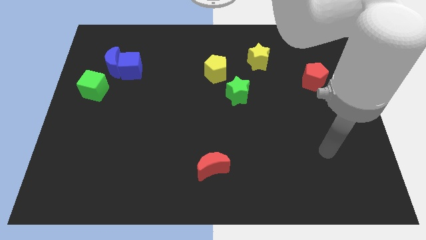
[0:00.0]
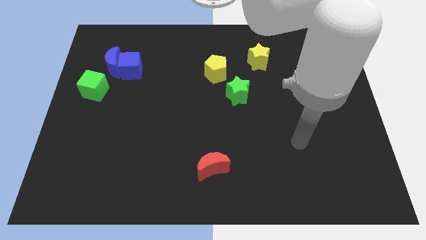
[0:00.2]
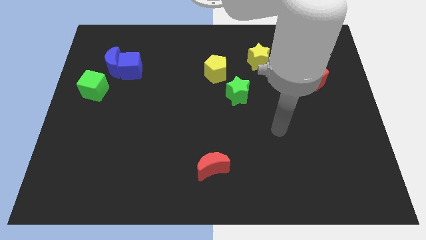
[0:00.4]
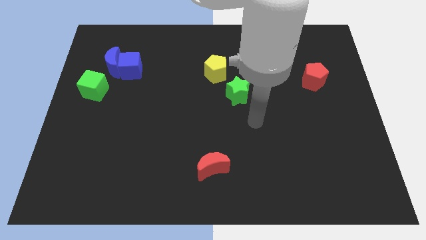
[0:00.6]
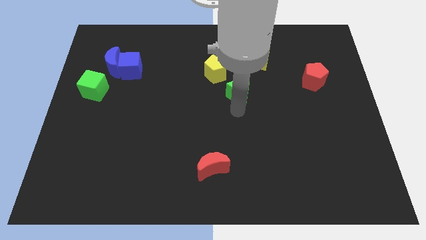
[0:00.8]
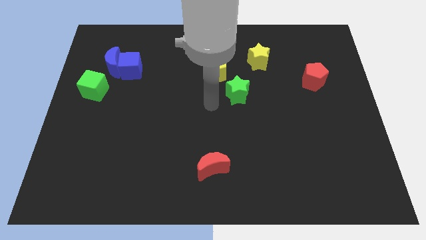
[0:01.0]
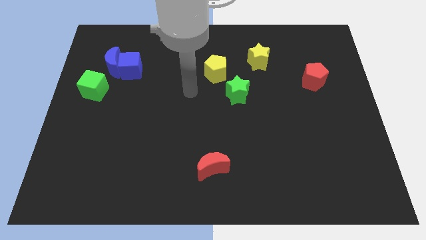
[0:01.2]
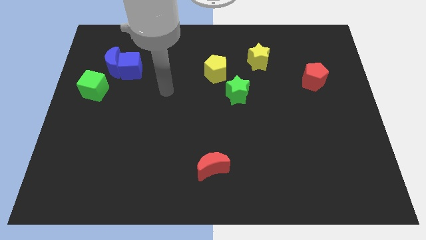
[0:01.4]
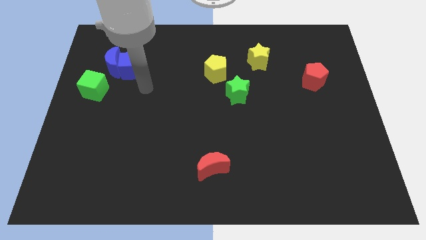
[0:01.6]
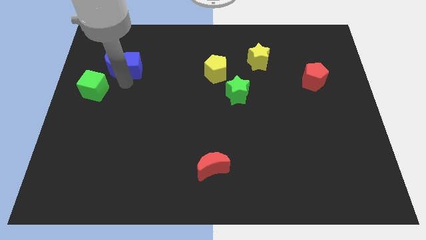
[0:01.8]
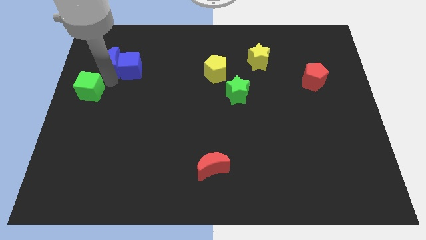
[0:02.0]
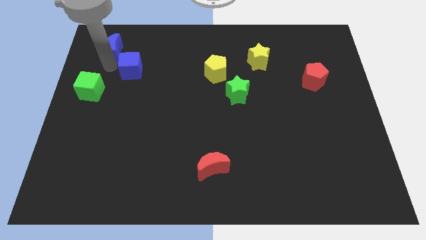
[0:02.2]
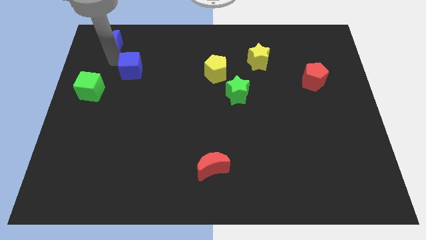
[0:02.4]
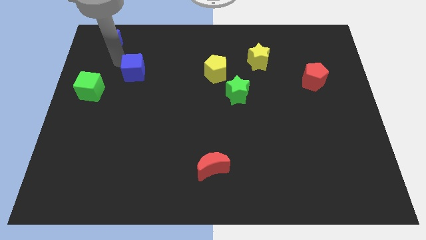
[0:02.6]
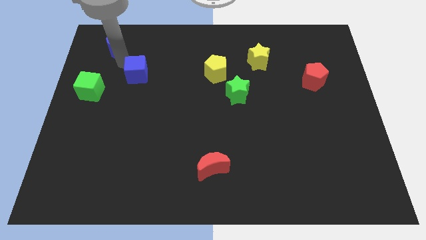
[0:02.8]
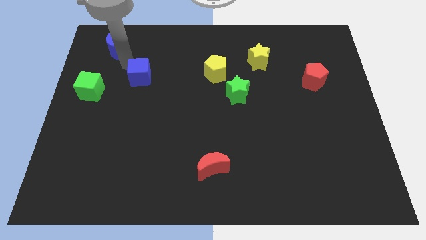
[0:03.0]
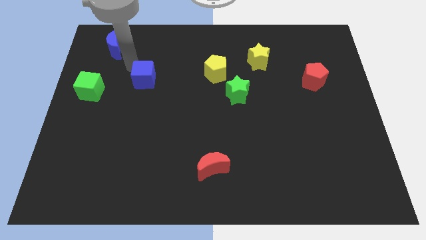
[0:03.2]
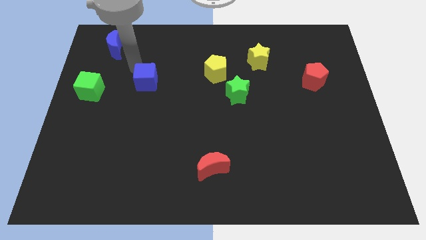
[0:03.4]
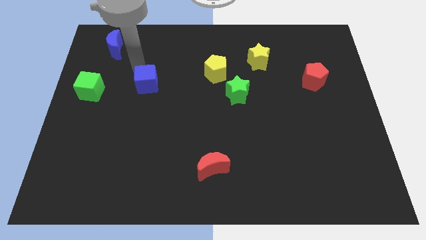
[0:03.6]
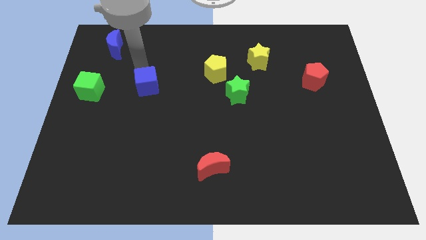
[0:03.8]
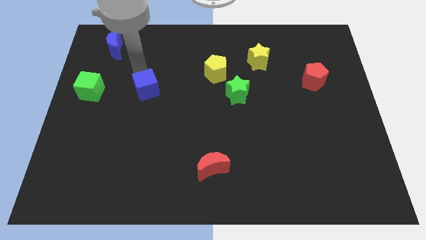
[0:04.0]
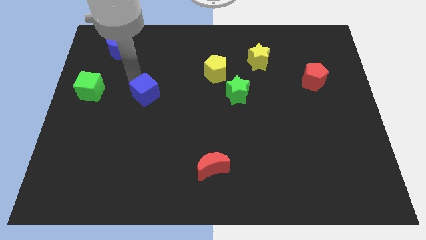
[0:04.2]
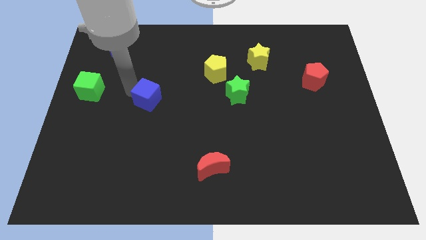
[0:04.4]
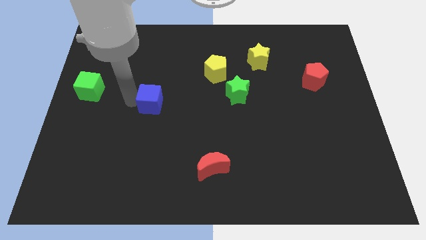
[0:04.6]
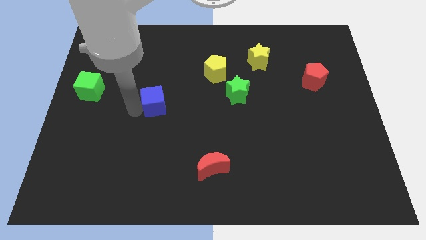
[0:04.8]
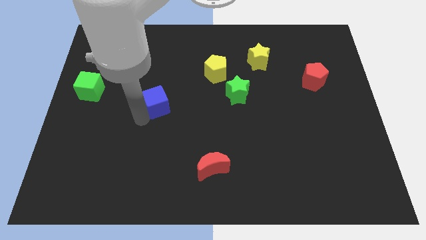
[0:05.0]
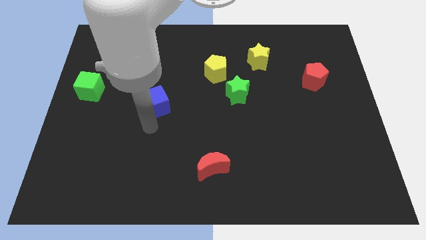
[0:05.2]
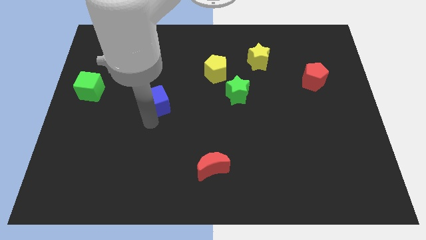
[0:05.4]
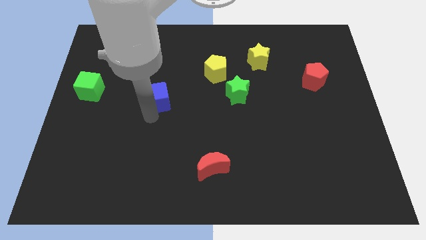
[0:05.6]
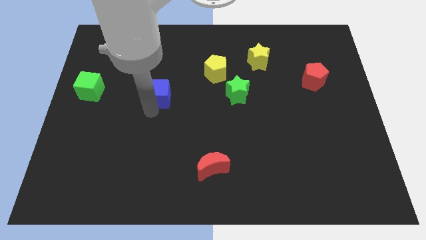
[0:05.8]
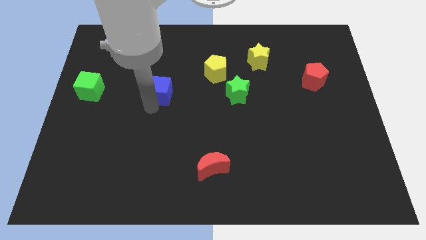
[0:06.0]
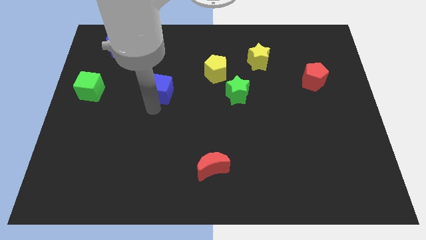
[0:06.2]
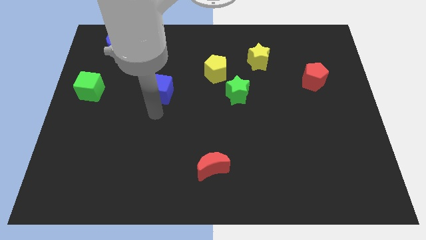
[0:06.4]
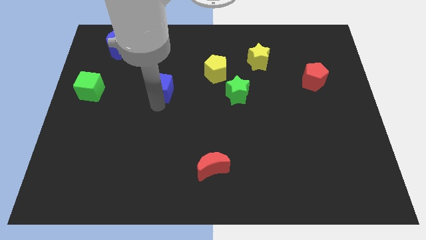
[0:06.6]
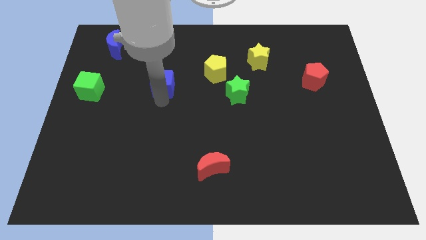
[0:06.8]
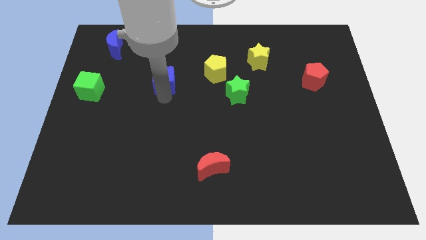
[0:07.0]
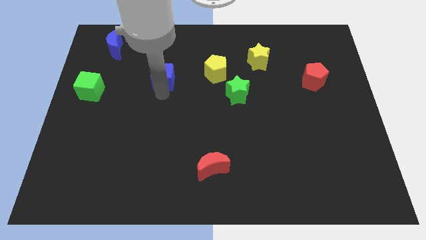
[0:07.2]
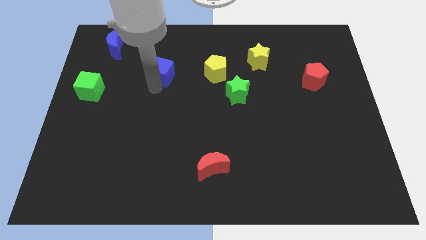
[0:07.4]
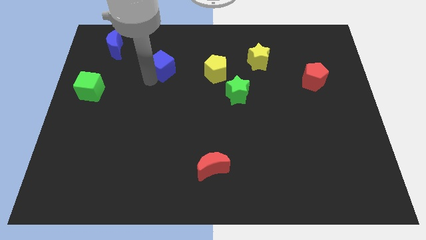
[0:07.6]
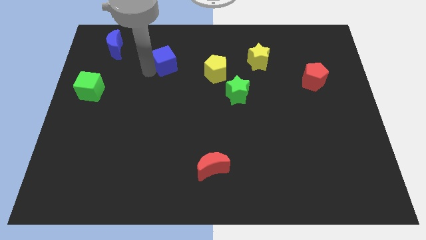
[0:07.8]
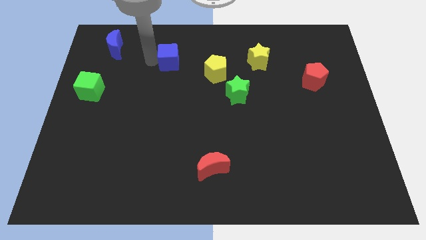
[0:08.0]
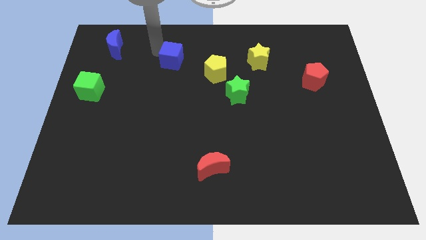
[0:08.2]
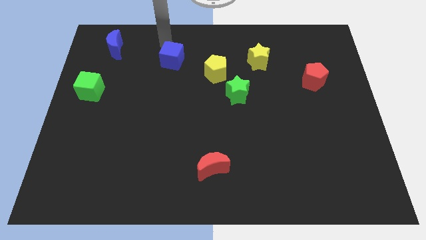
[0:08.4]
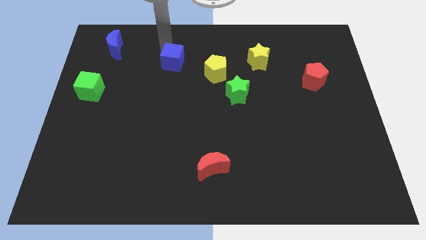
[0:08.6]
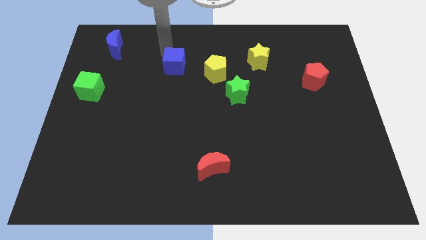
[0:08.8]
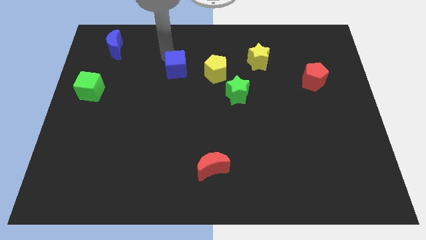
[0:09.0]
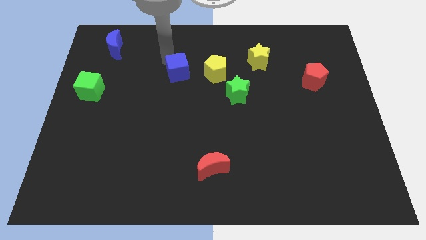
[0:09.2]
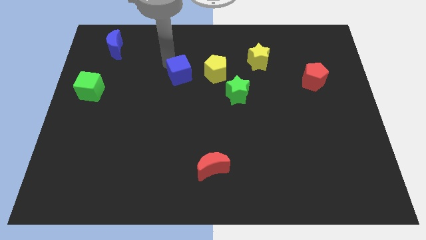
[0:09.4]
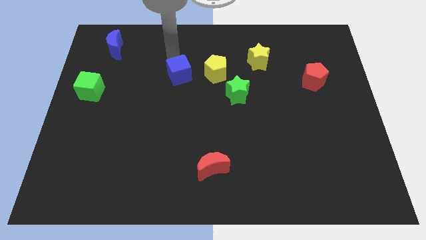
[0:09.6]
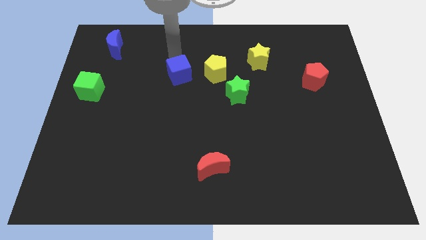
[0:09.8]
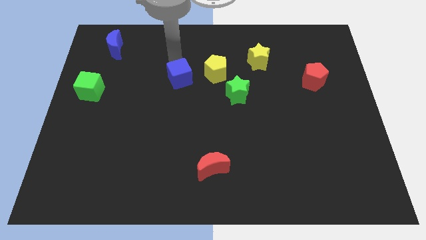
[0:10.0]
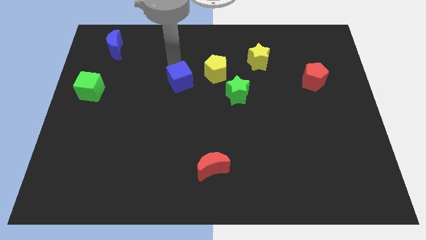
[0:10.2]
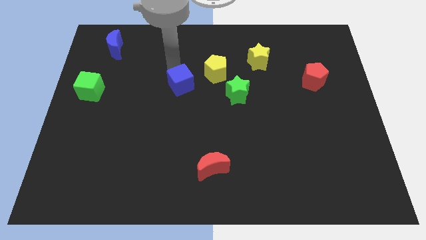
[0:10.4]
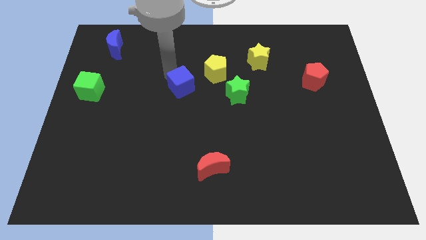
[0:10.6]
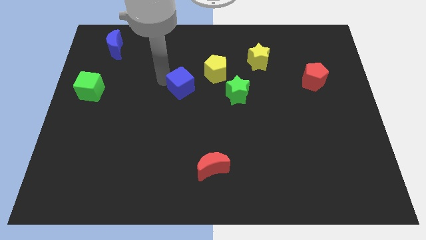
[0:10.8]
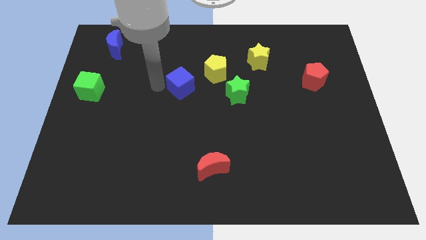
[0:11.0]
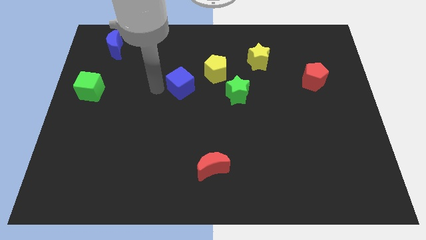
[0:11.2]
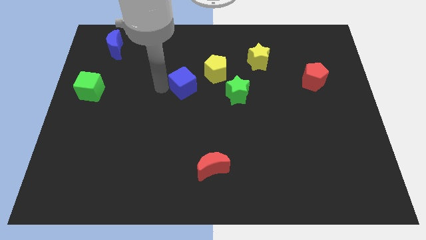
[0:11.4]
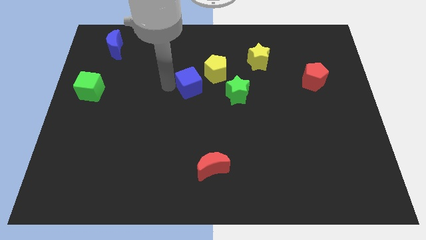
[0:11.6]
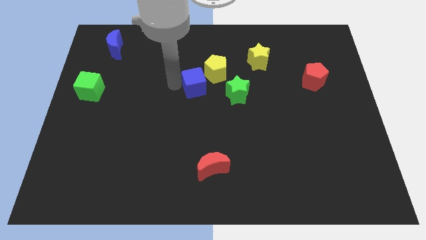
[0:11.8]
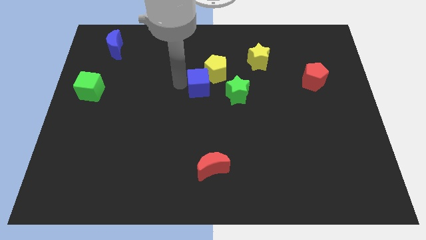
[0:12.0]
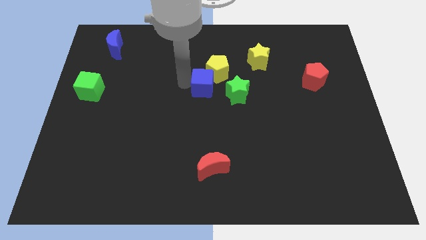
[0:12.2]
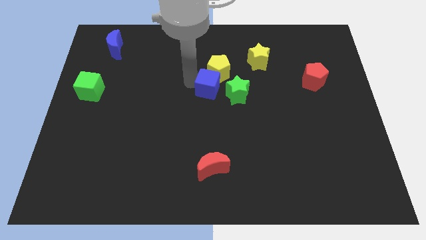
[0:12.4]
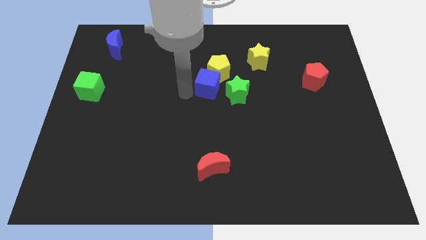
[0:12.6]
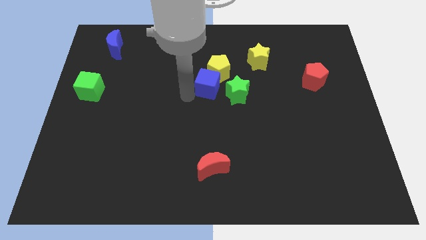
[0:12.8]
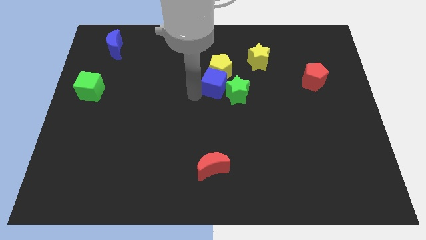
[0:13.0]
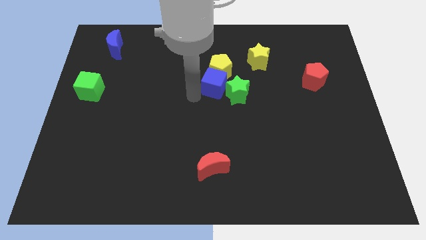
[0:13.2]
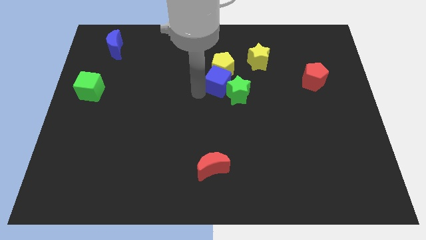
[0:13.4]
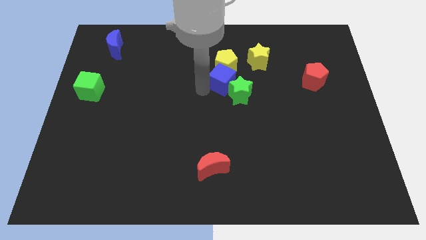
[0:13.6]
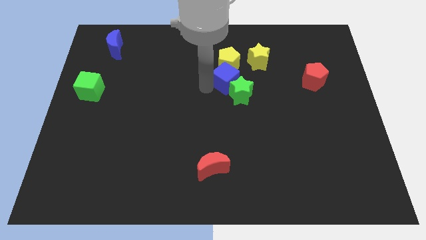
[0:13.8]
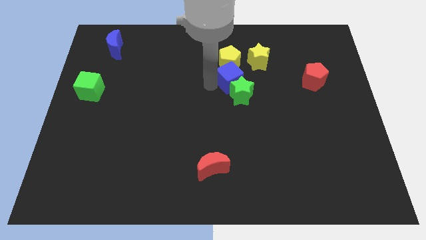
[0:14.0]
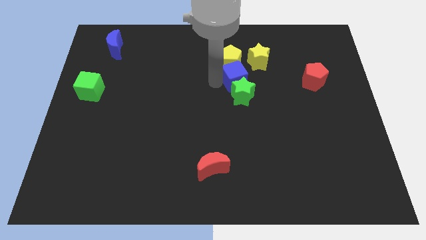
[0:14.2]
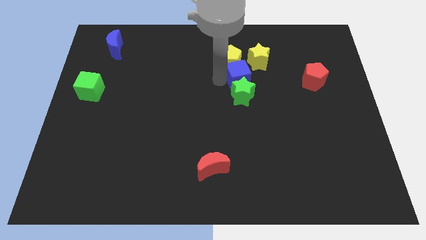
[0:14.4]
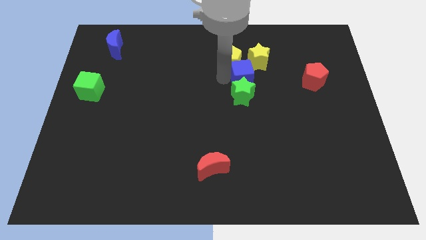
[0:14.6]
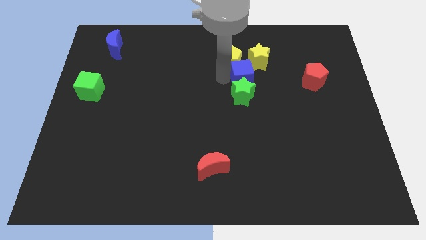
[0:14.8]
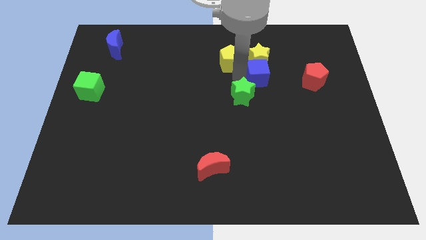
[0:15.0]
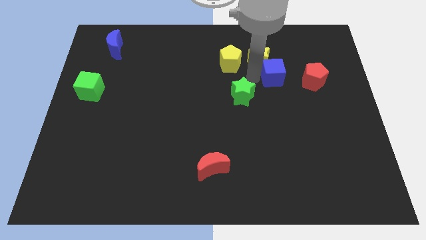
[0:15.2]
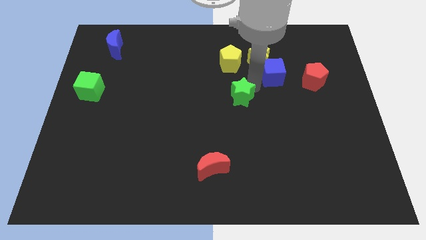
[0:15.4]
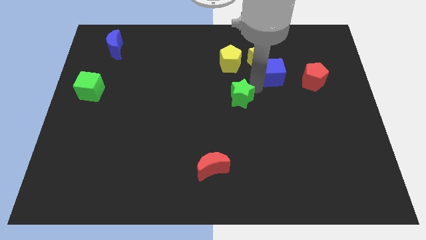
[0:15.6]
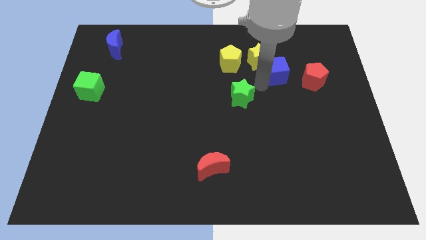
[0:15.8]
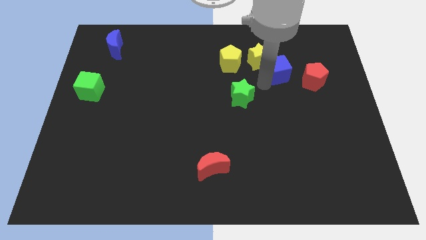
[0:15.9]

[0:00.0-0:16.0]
slide the blue cube diagonally up and to the left of the red pentagon
